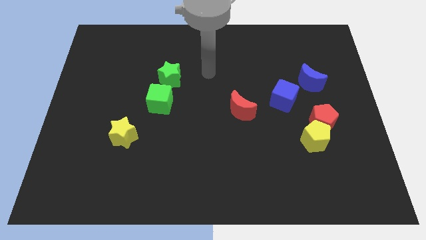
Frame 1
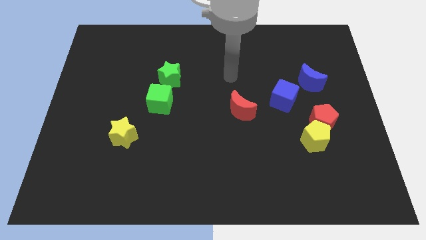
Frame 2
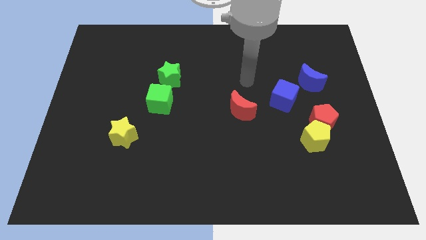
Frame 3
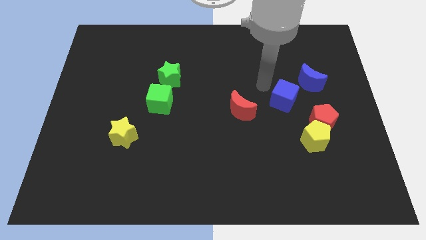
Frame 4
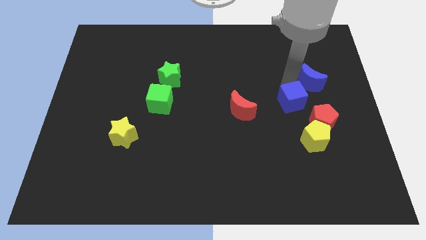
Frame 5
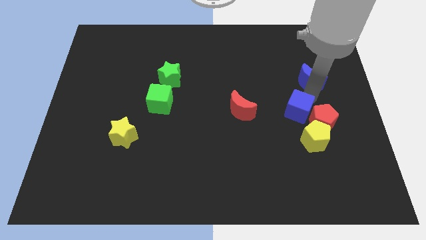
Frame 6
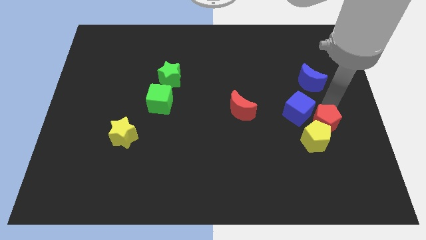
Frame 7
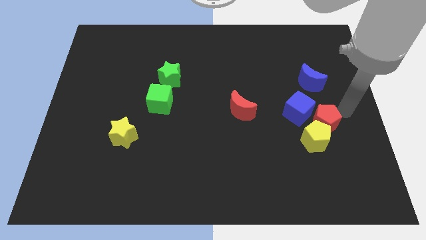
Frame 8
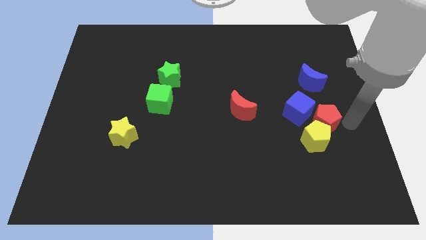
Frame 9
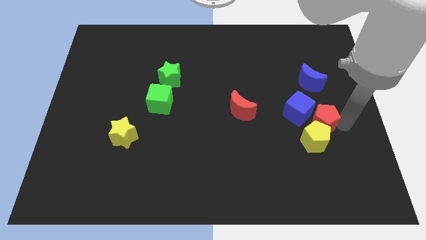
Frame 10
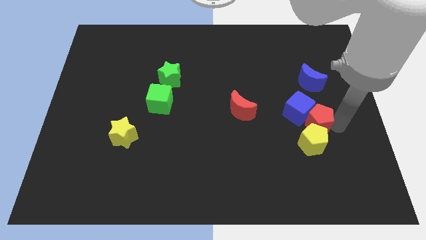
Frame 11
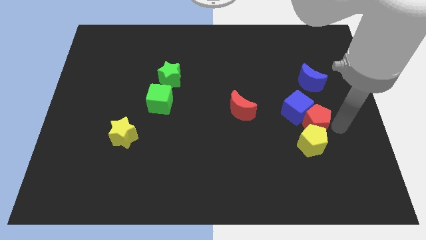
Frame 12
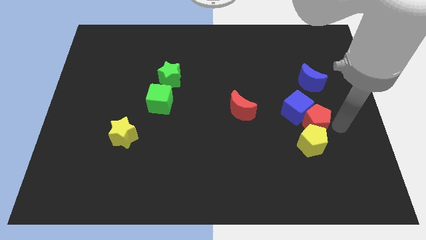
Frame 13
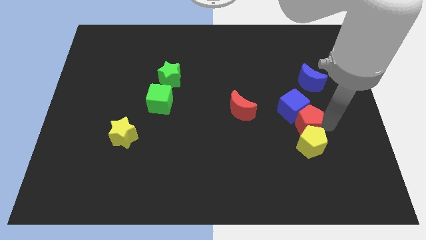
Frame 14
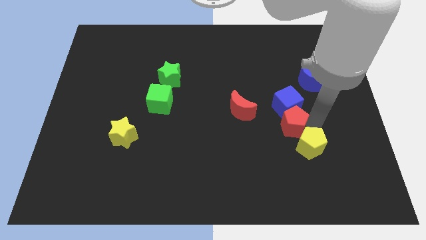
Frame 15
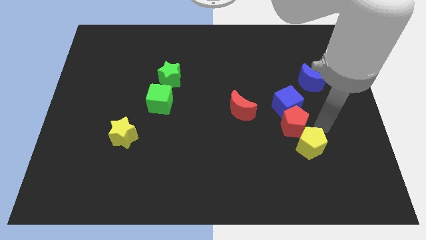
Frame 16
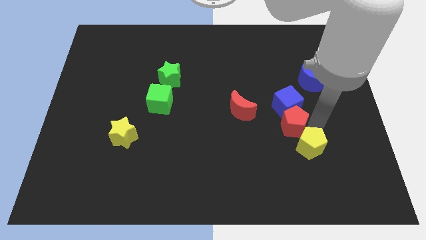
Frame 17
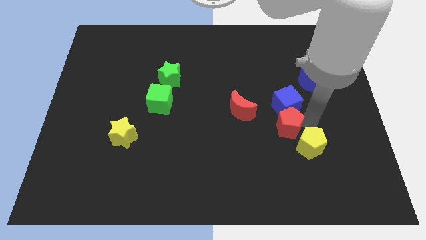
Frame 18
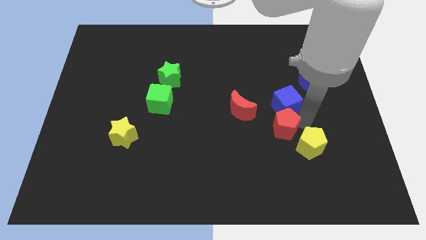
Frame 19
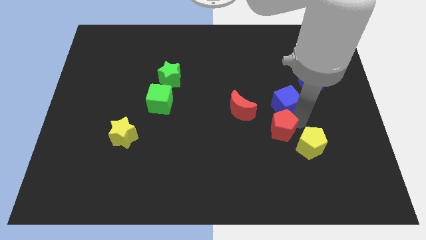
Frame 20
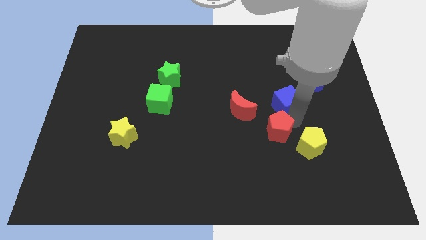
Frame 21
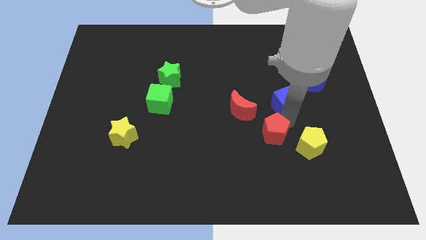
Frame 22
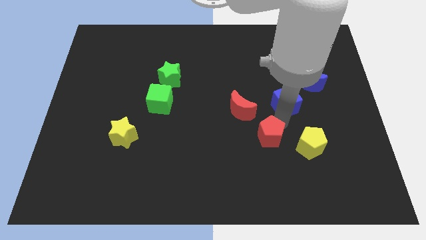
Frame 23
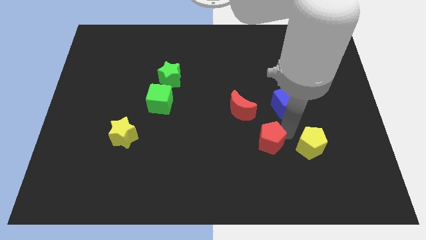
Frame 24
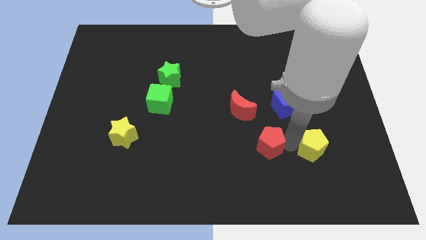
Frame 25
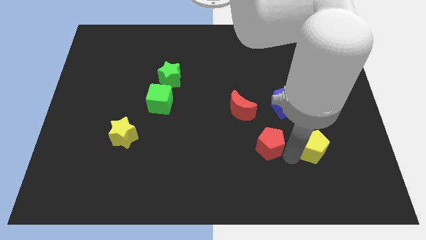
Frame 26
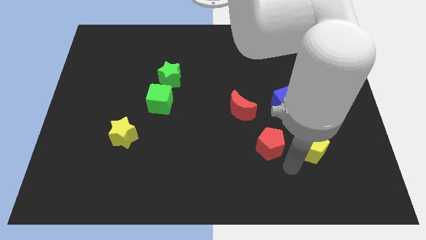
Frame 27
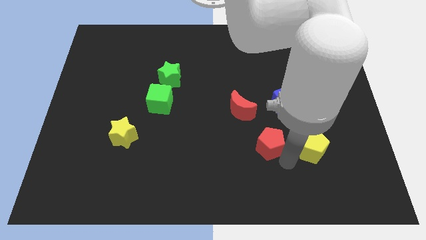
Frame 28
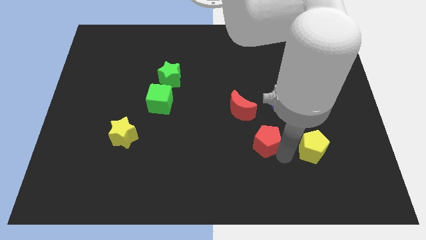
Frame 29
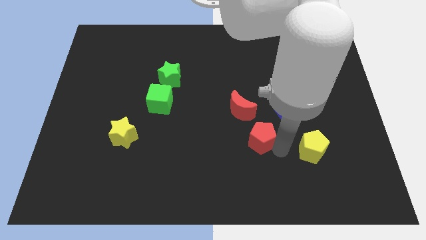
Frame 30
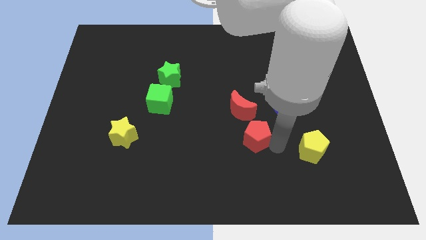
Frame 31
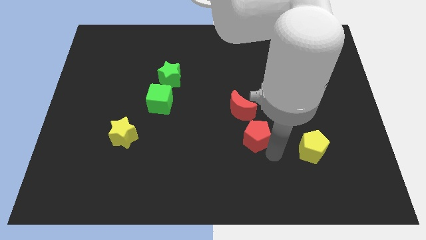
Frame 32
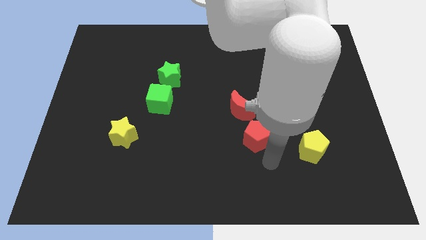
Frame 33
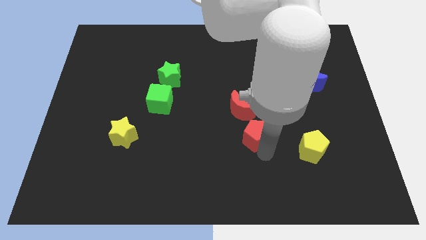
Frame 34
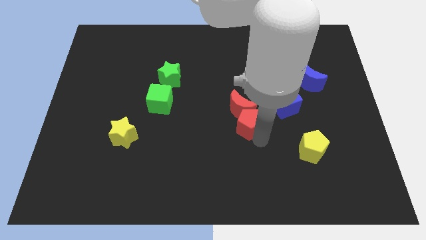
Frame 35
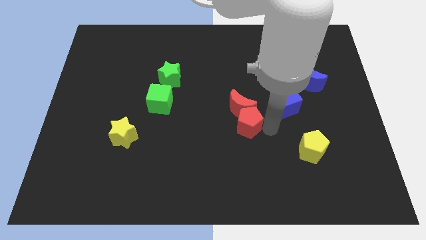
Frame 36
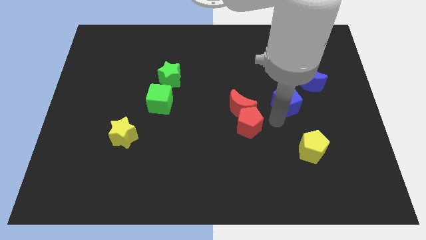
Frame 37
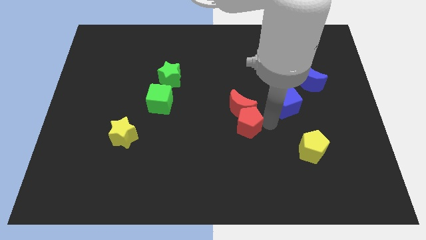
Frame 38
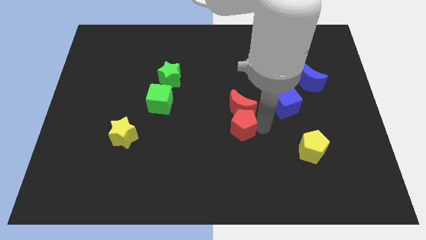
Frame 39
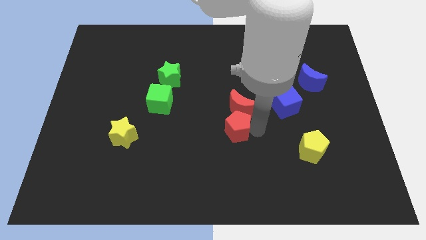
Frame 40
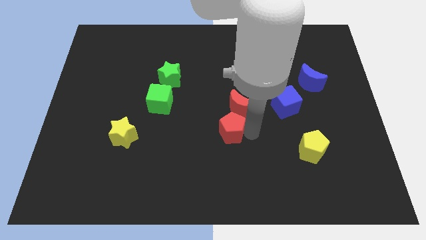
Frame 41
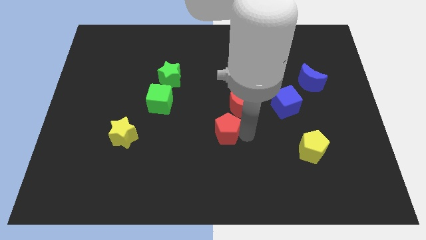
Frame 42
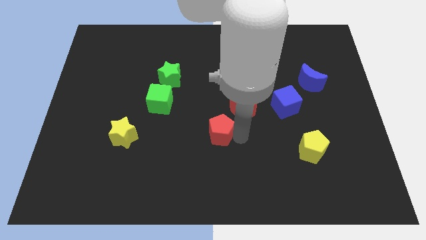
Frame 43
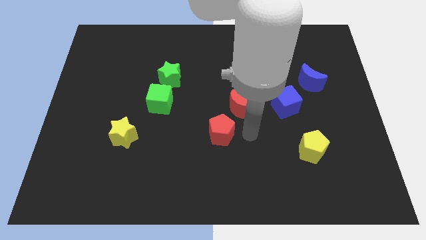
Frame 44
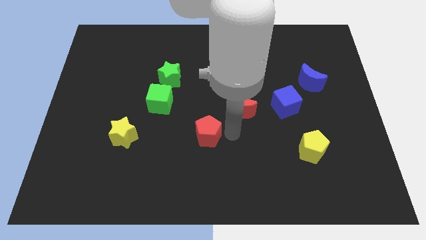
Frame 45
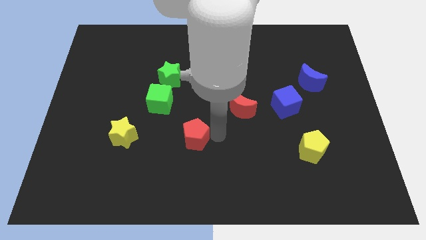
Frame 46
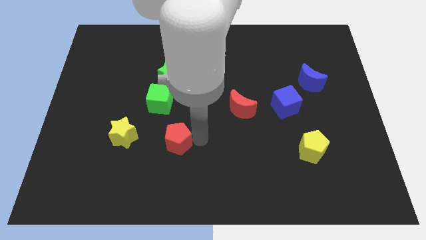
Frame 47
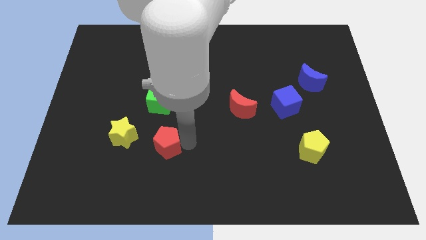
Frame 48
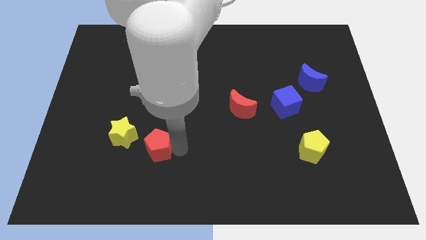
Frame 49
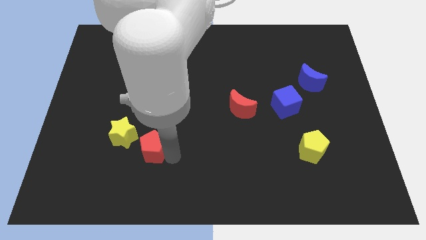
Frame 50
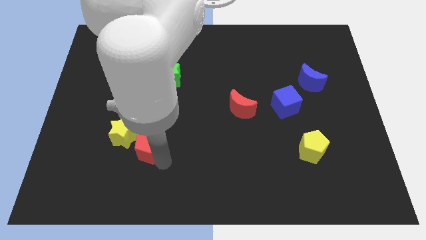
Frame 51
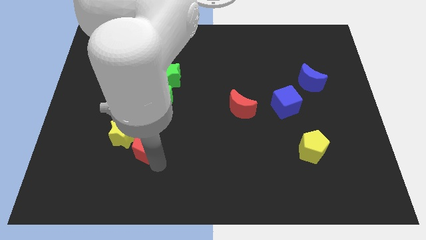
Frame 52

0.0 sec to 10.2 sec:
slide the red pentagon towards the yellow star

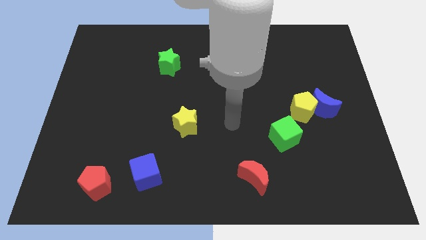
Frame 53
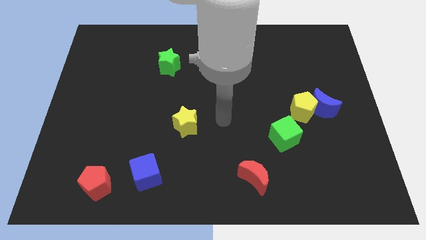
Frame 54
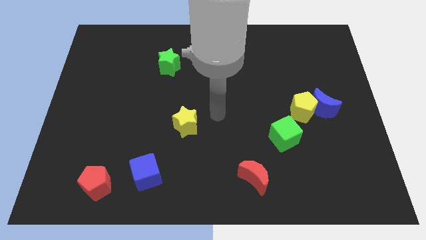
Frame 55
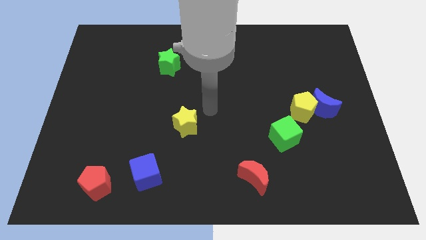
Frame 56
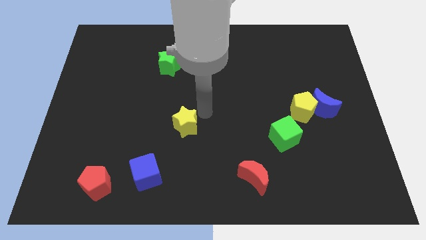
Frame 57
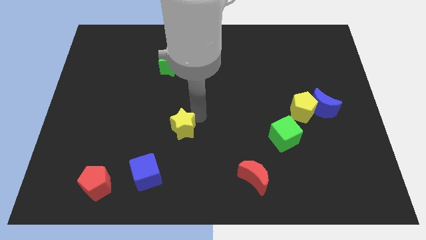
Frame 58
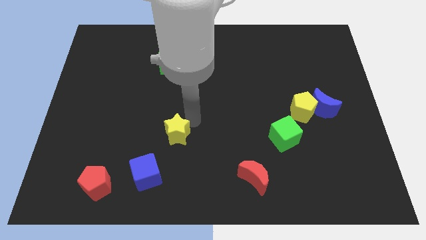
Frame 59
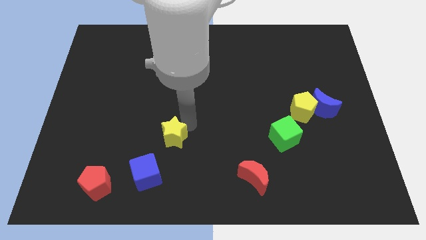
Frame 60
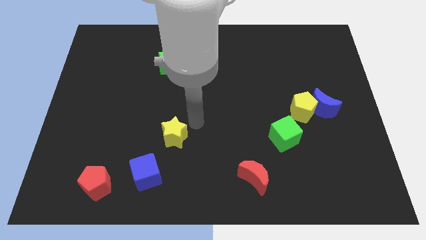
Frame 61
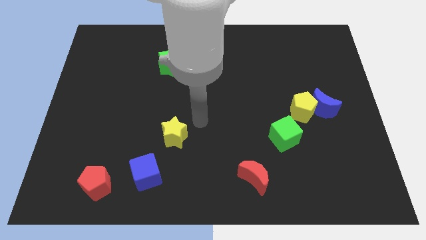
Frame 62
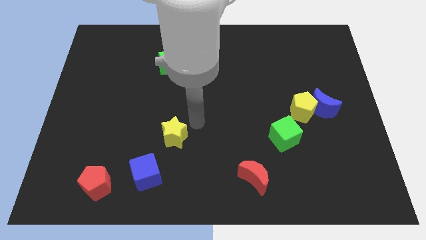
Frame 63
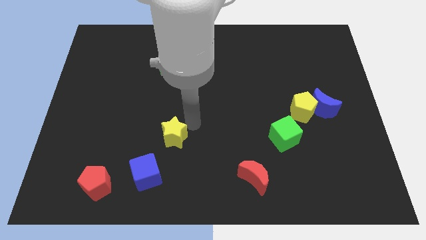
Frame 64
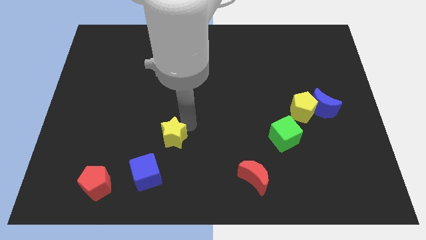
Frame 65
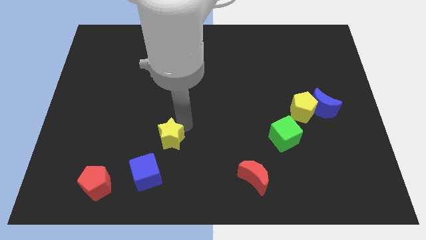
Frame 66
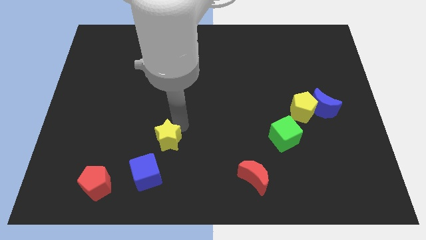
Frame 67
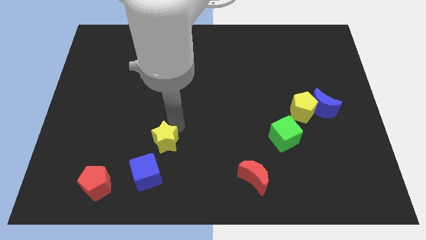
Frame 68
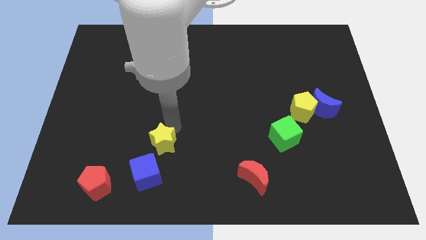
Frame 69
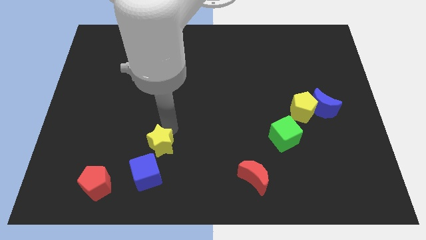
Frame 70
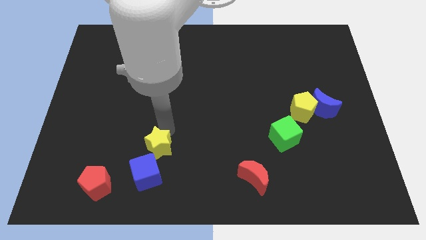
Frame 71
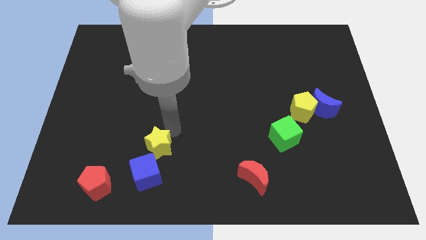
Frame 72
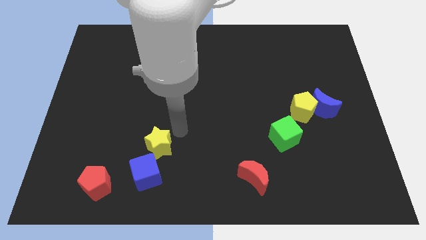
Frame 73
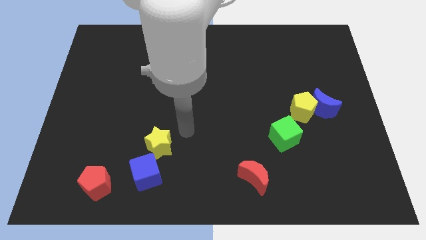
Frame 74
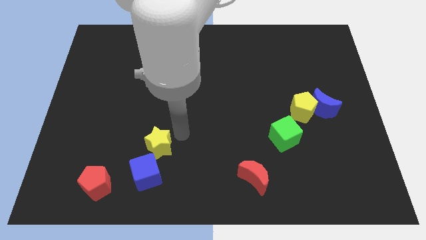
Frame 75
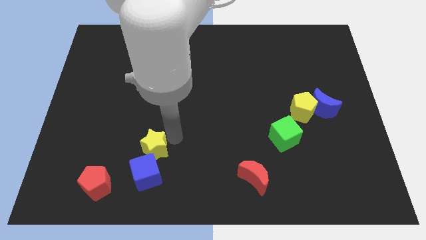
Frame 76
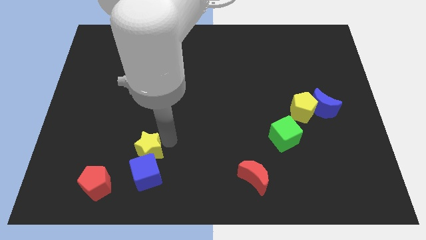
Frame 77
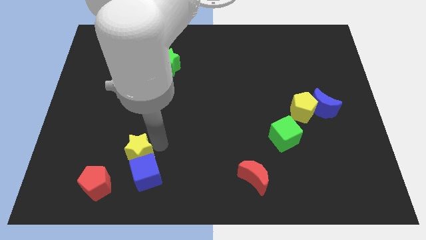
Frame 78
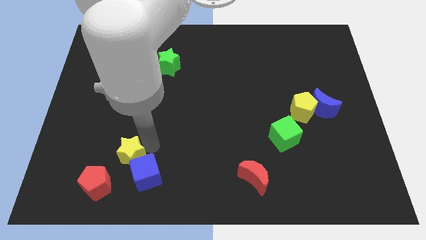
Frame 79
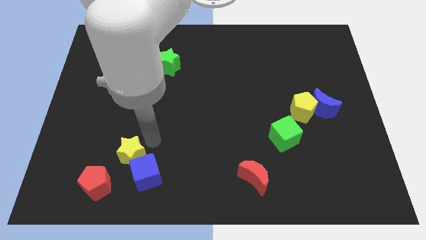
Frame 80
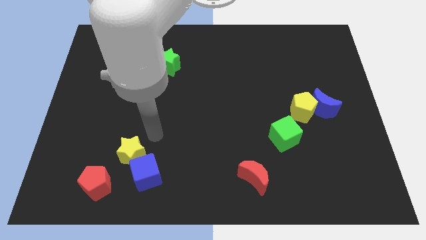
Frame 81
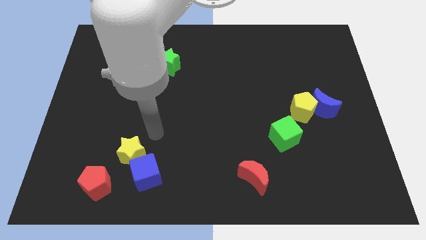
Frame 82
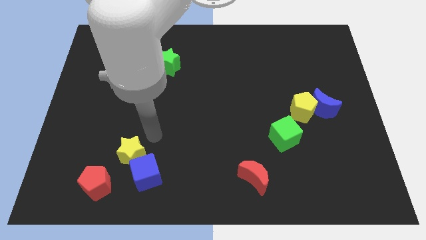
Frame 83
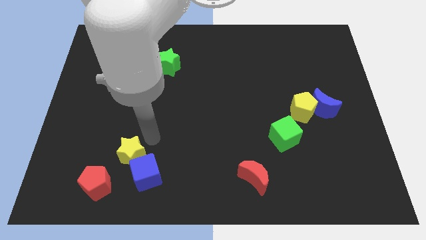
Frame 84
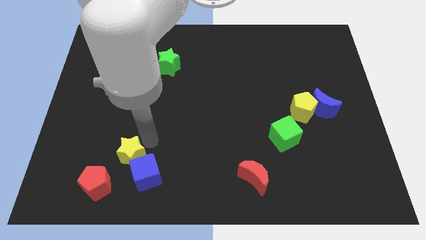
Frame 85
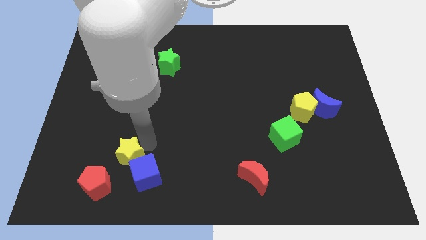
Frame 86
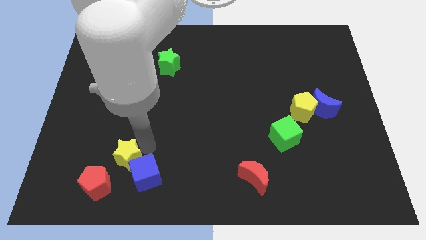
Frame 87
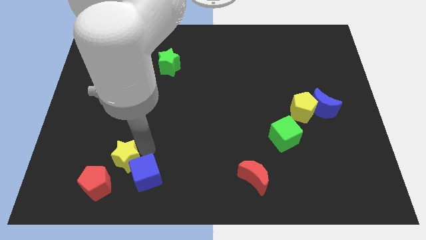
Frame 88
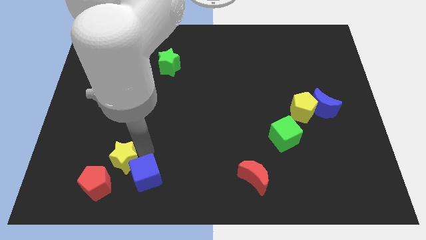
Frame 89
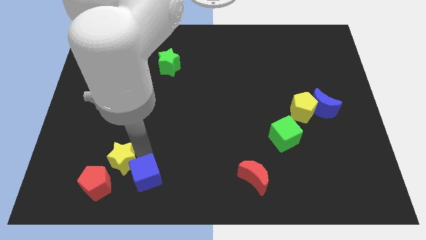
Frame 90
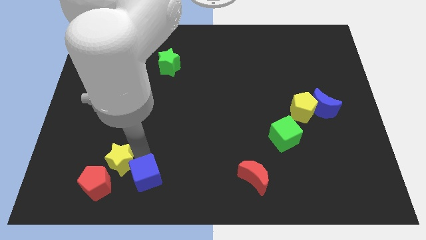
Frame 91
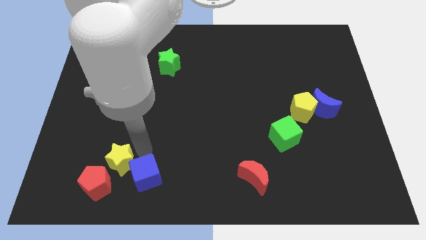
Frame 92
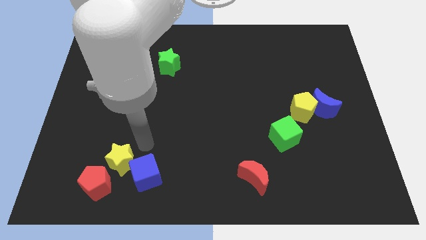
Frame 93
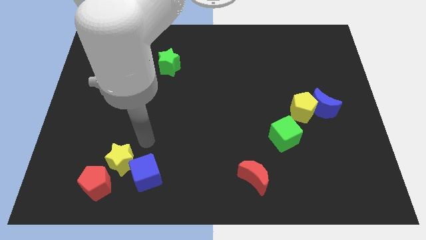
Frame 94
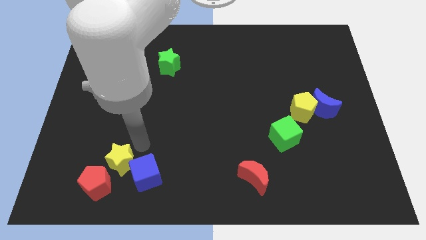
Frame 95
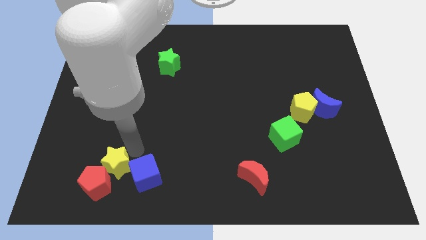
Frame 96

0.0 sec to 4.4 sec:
slide the yellow star towards the red pentagon
